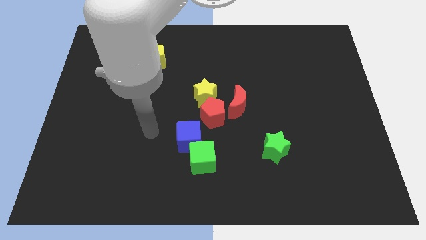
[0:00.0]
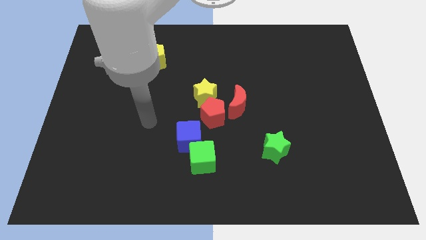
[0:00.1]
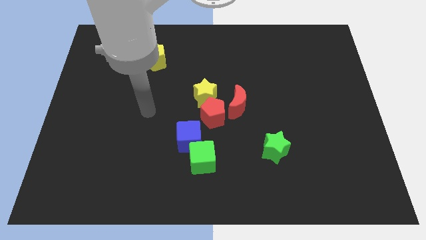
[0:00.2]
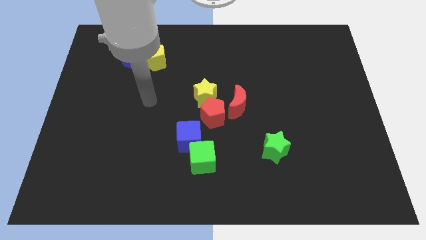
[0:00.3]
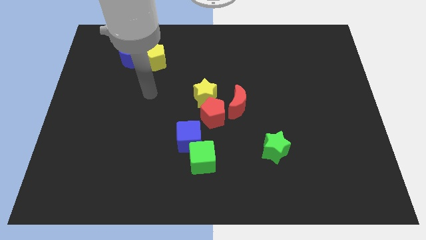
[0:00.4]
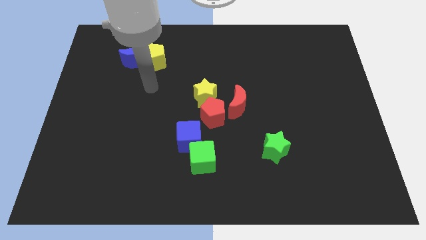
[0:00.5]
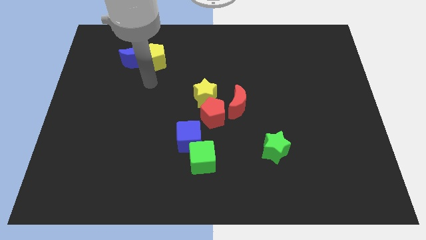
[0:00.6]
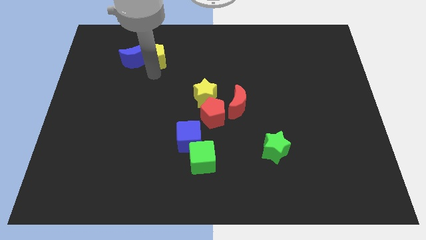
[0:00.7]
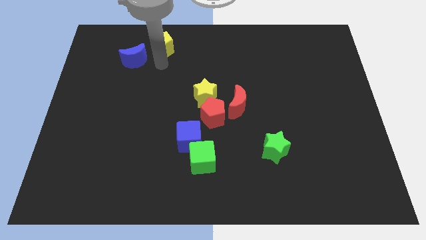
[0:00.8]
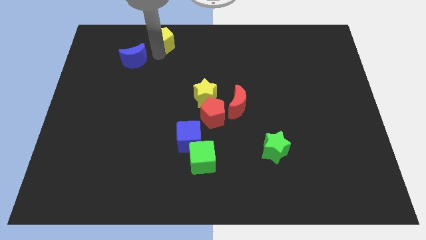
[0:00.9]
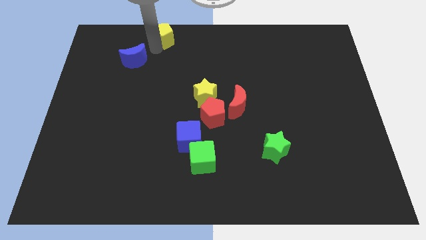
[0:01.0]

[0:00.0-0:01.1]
move the blue moon away from the yellow pentagon

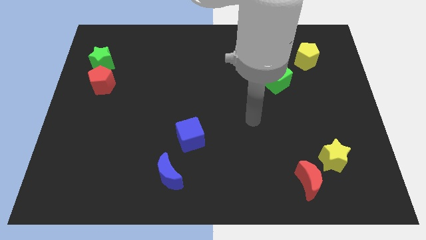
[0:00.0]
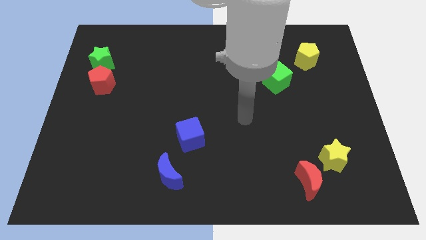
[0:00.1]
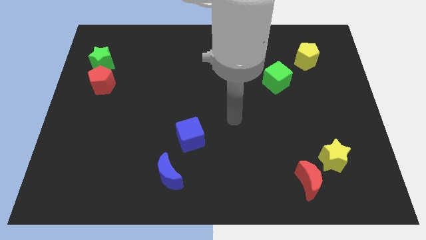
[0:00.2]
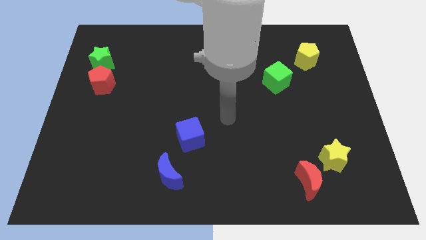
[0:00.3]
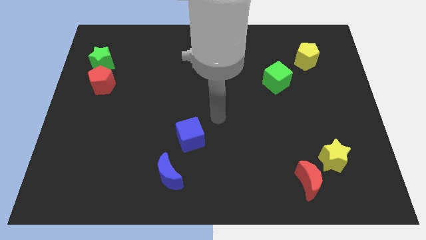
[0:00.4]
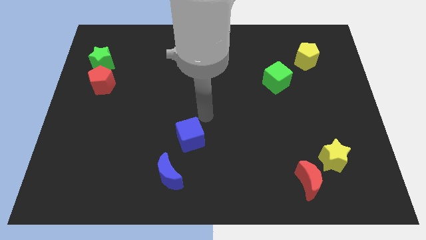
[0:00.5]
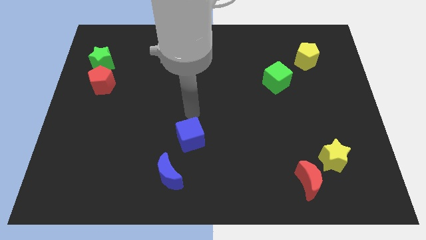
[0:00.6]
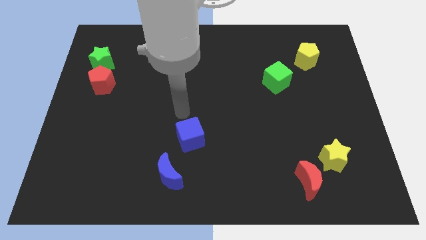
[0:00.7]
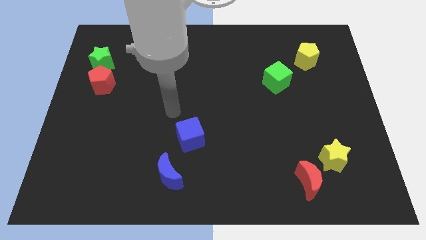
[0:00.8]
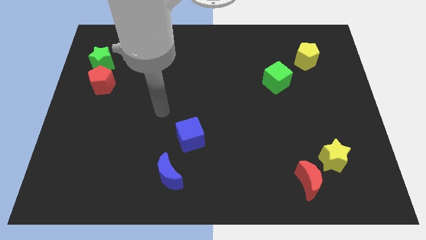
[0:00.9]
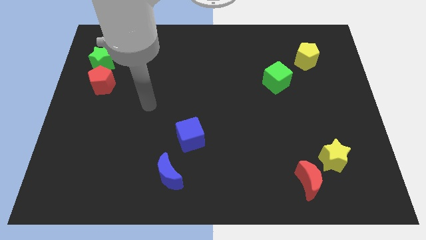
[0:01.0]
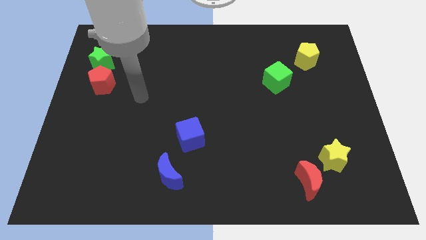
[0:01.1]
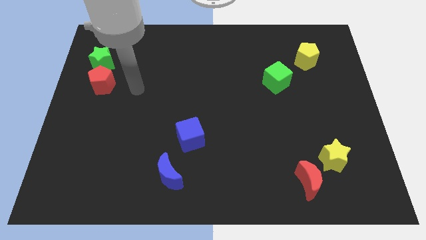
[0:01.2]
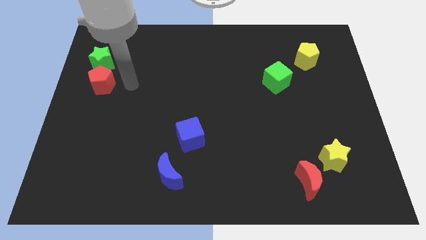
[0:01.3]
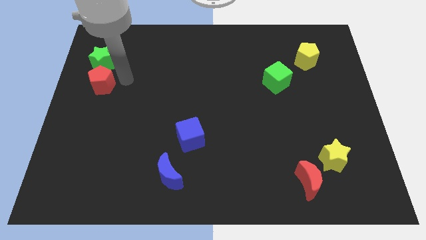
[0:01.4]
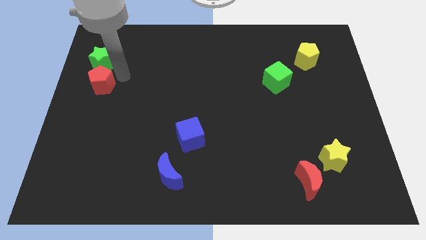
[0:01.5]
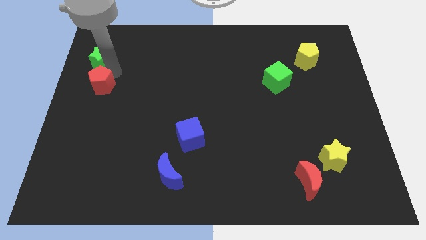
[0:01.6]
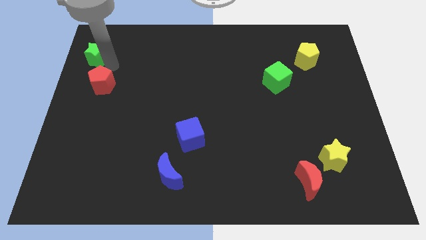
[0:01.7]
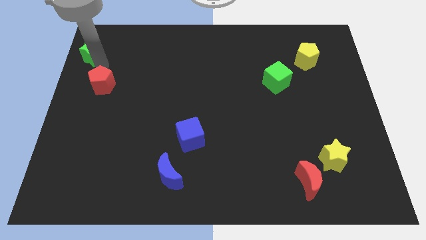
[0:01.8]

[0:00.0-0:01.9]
separate the red pentagon from the green star

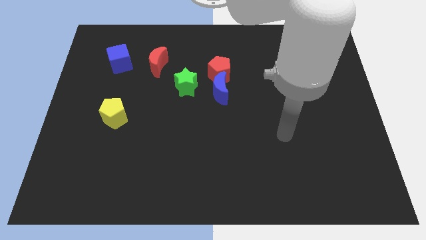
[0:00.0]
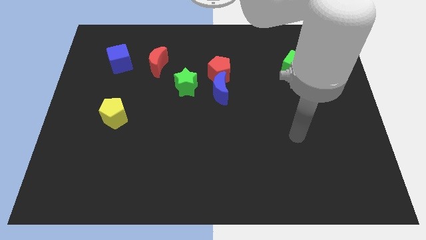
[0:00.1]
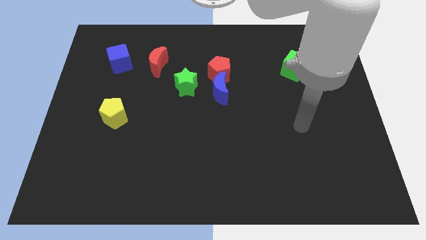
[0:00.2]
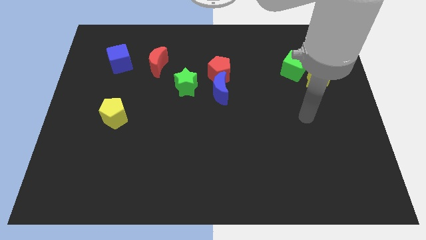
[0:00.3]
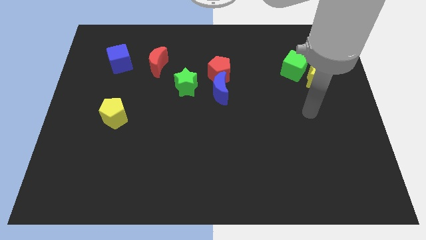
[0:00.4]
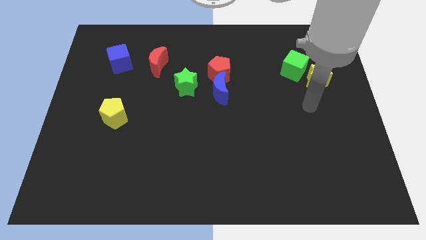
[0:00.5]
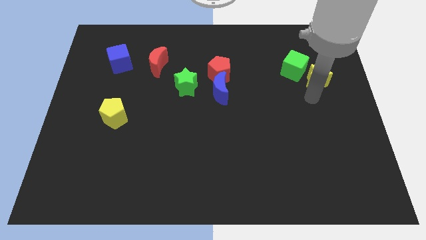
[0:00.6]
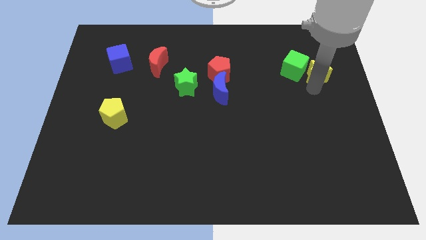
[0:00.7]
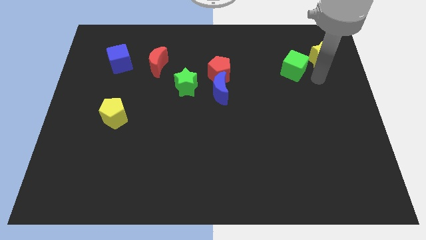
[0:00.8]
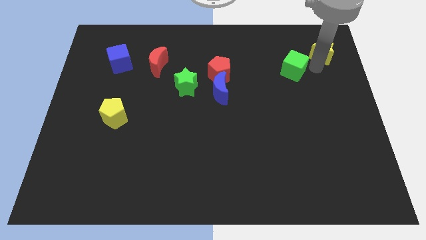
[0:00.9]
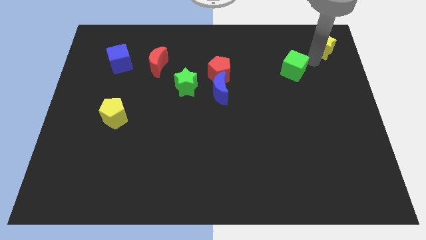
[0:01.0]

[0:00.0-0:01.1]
move the green cube away from the yellow star

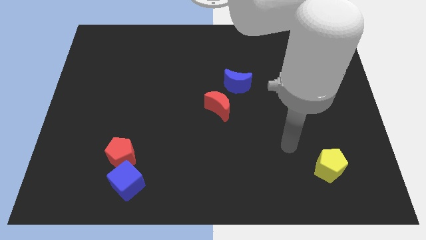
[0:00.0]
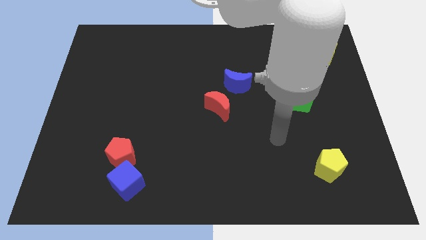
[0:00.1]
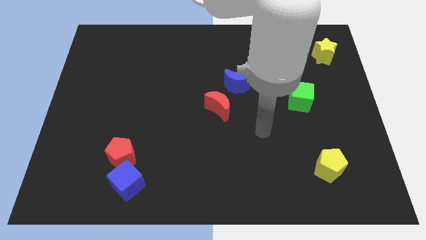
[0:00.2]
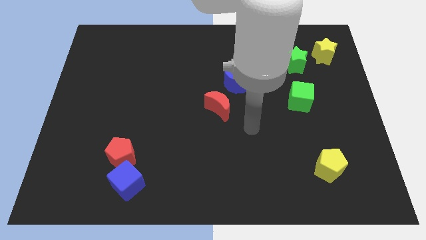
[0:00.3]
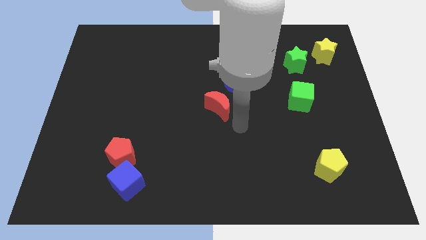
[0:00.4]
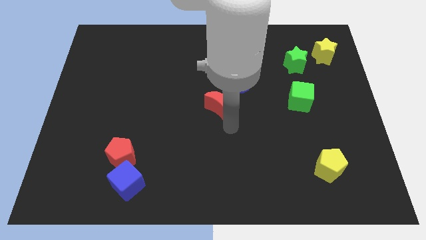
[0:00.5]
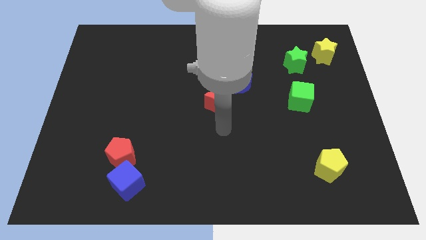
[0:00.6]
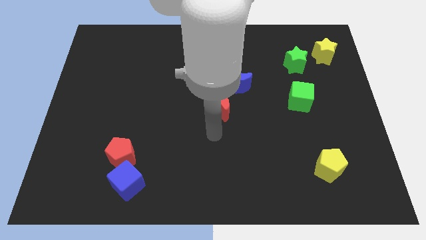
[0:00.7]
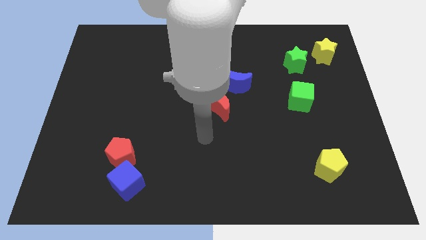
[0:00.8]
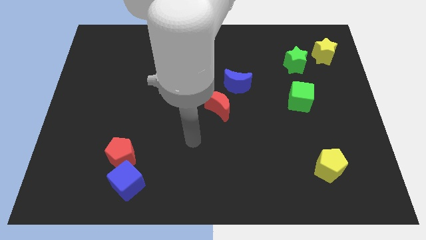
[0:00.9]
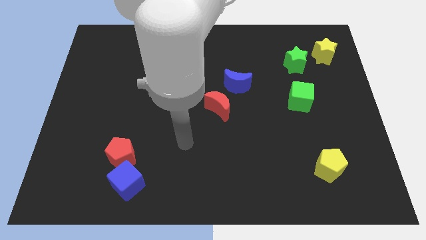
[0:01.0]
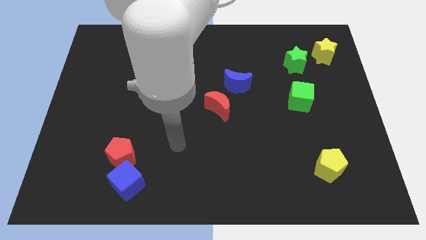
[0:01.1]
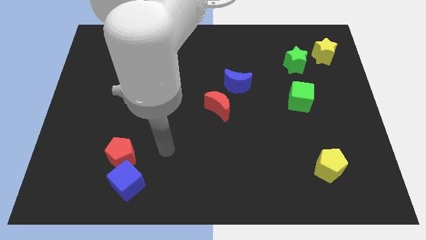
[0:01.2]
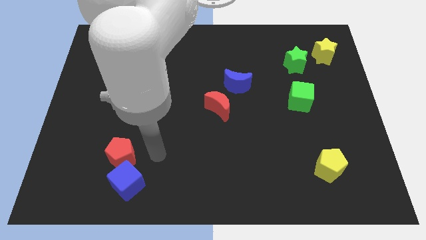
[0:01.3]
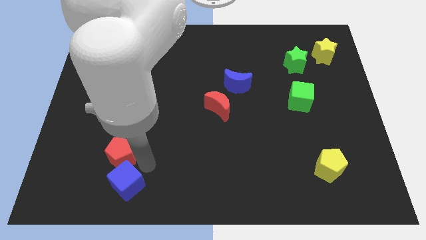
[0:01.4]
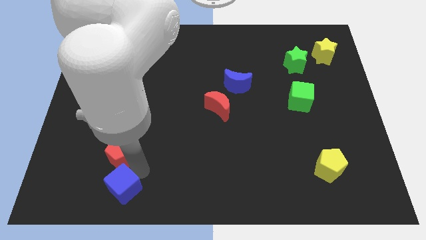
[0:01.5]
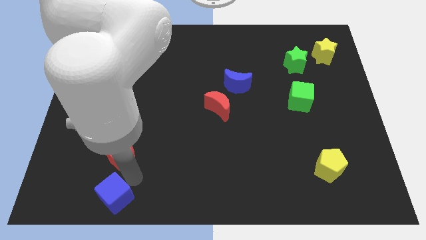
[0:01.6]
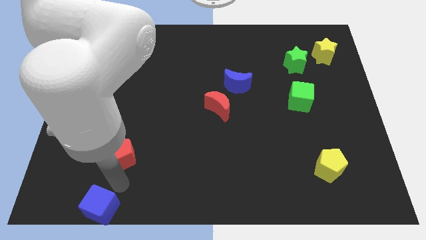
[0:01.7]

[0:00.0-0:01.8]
move the red pentagon away from the blue cube

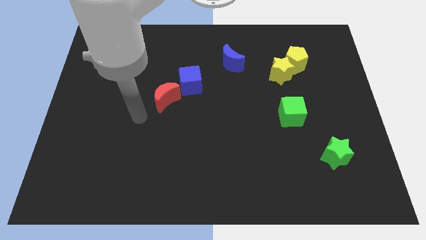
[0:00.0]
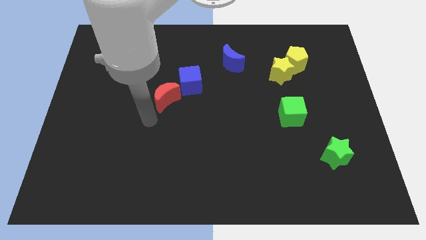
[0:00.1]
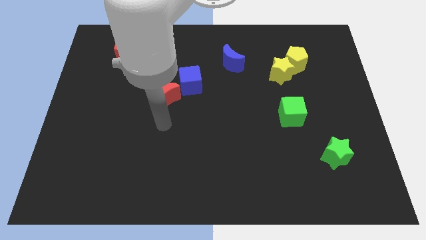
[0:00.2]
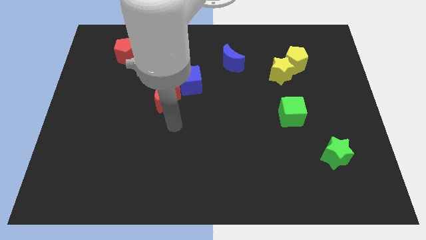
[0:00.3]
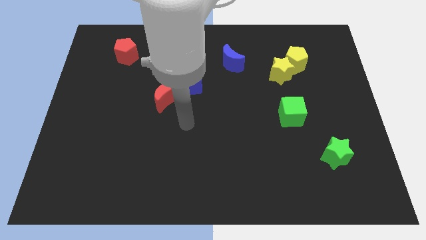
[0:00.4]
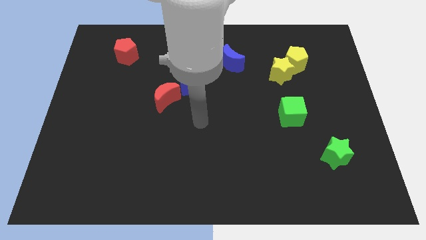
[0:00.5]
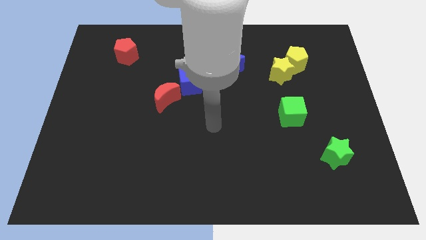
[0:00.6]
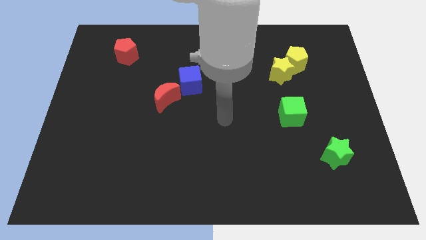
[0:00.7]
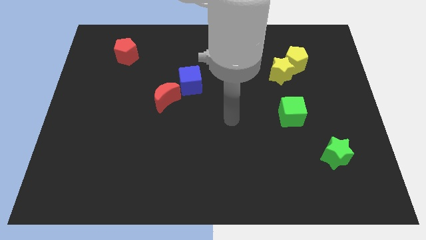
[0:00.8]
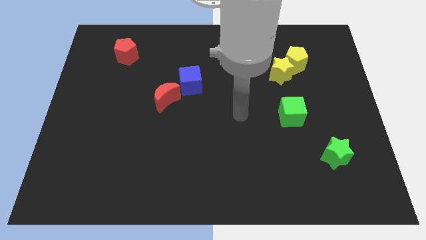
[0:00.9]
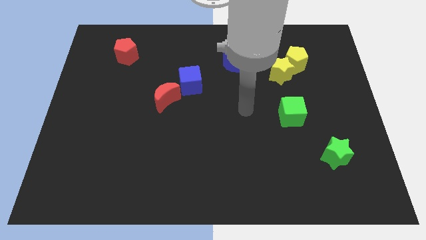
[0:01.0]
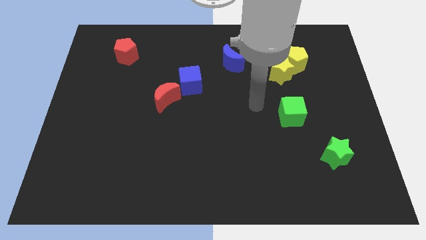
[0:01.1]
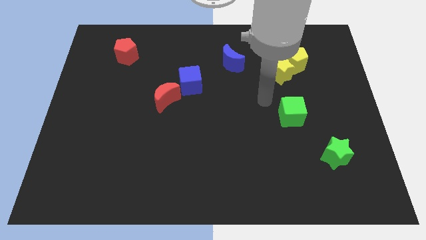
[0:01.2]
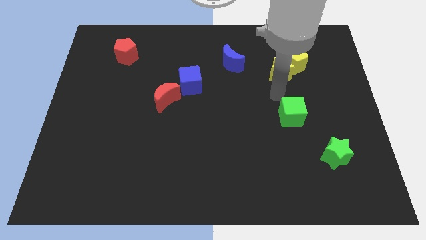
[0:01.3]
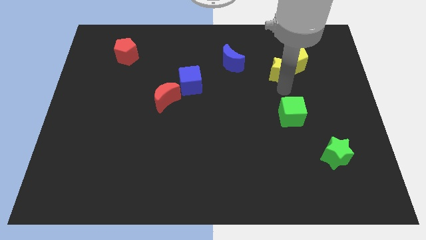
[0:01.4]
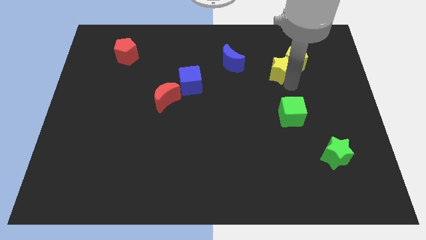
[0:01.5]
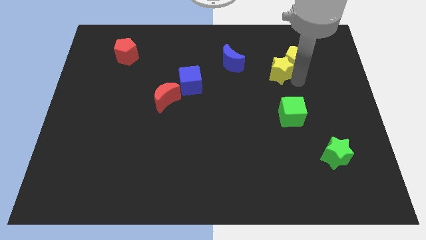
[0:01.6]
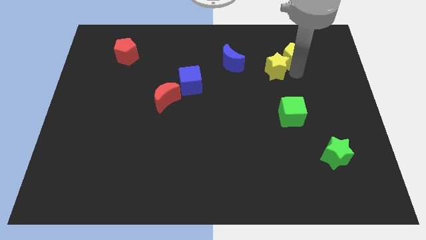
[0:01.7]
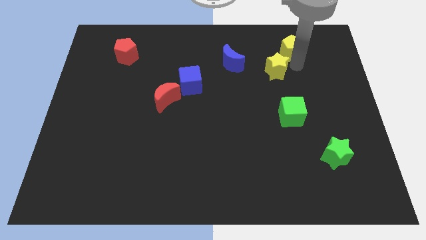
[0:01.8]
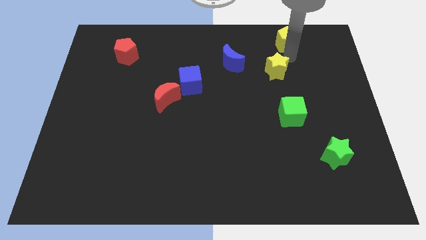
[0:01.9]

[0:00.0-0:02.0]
move the yellow star away from the yellow pentagon

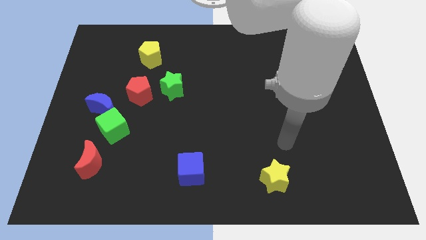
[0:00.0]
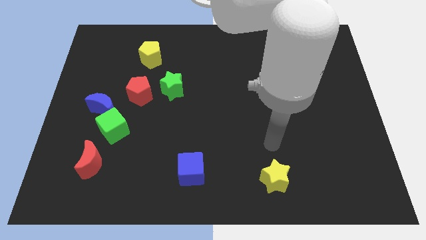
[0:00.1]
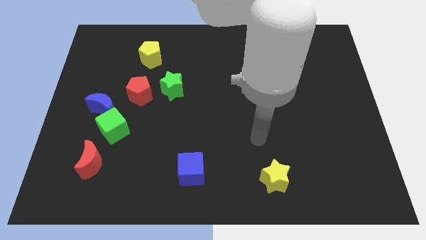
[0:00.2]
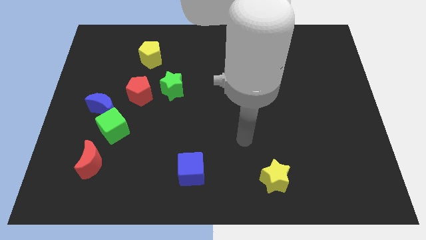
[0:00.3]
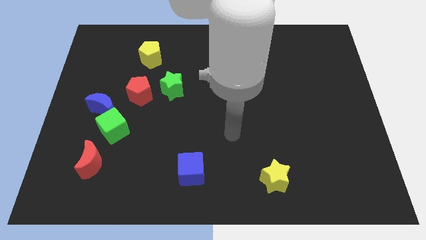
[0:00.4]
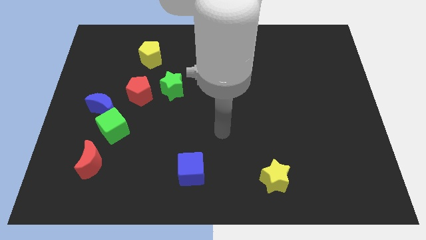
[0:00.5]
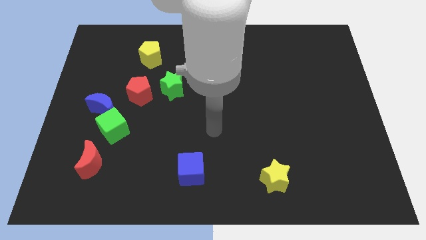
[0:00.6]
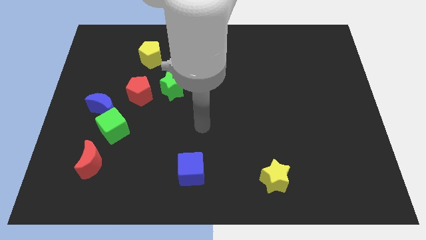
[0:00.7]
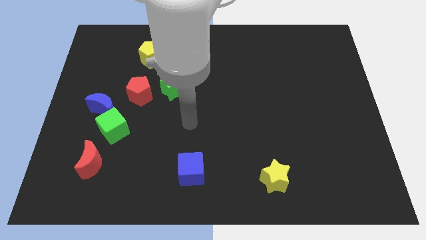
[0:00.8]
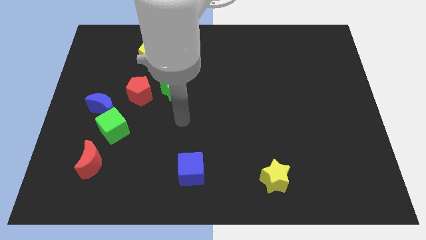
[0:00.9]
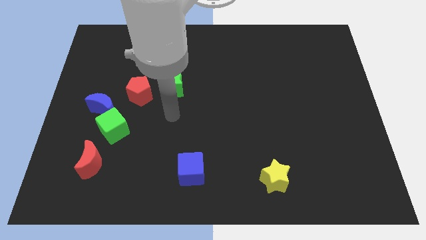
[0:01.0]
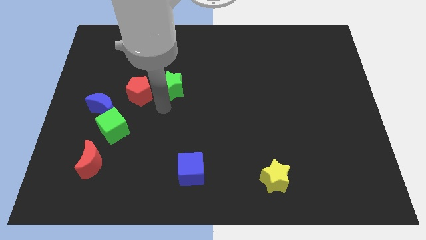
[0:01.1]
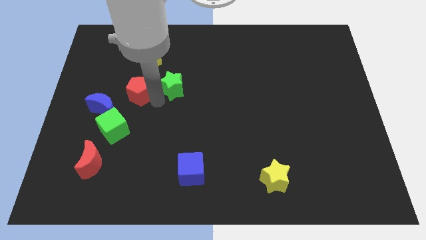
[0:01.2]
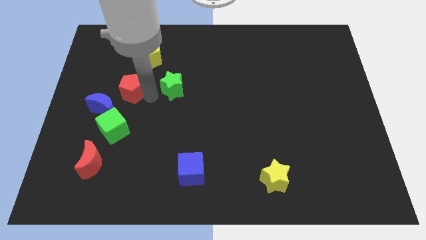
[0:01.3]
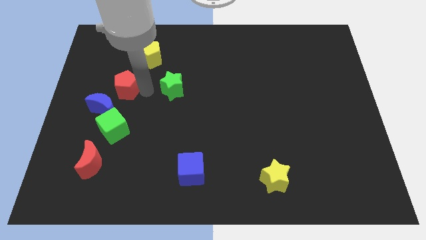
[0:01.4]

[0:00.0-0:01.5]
pull the green star apart from the red pentagon
